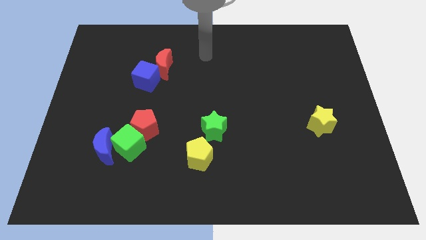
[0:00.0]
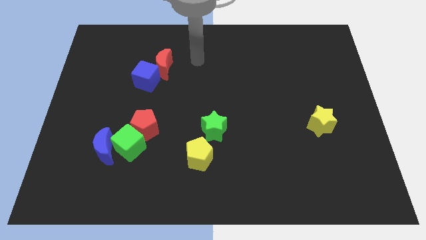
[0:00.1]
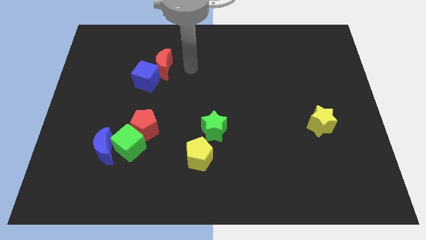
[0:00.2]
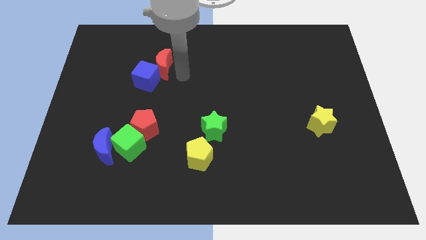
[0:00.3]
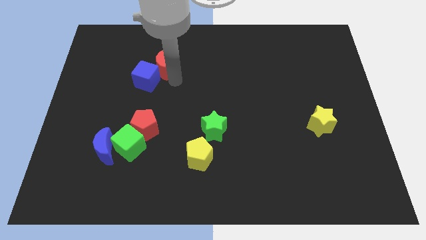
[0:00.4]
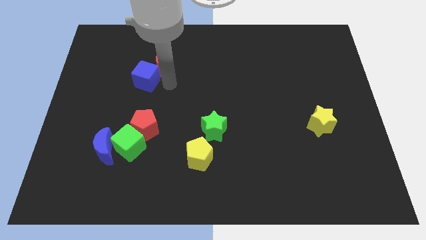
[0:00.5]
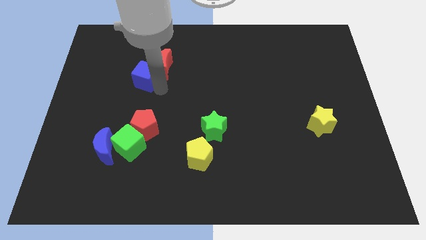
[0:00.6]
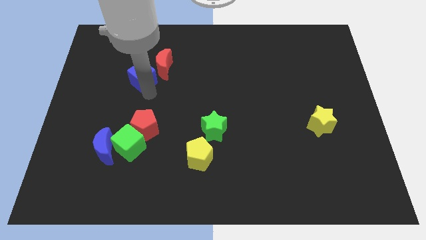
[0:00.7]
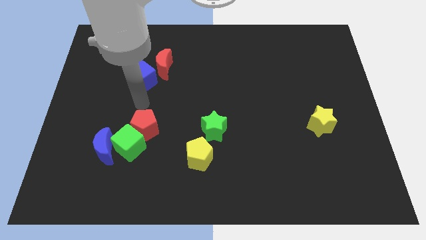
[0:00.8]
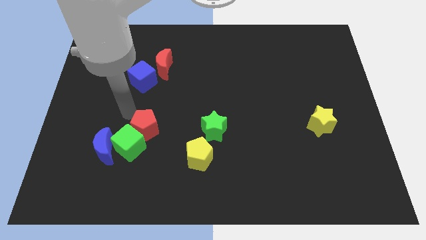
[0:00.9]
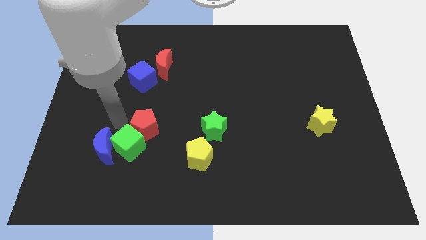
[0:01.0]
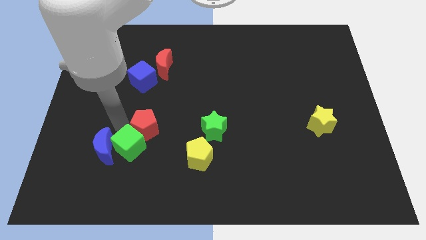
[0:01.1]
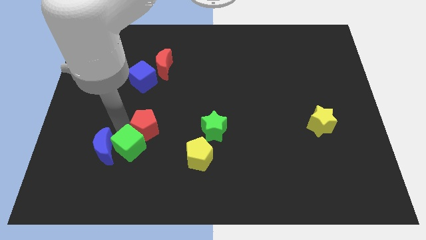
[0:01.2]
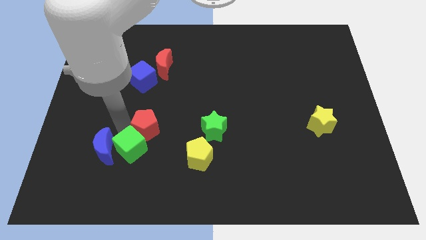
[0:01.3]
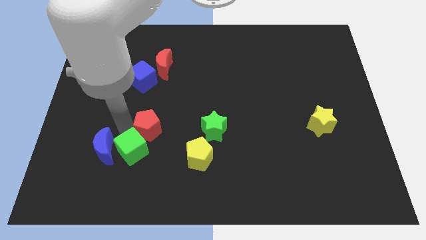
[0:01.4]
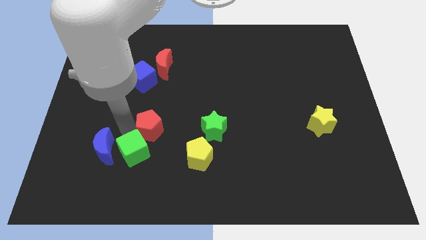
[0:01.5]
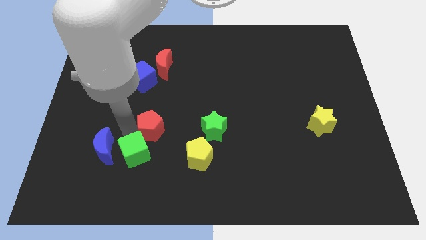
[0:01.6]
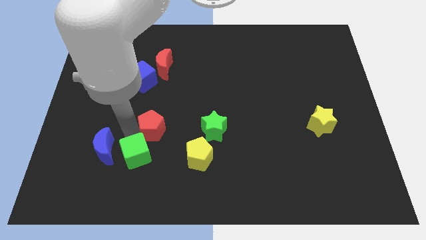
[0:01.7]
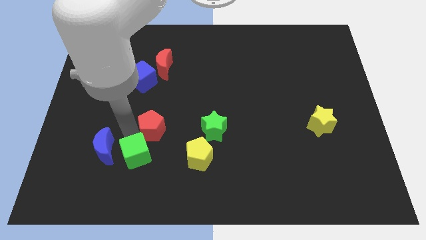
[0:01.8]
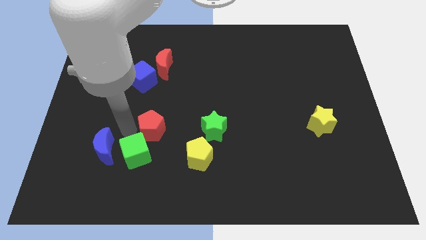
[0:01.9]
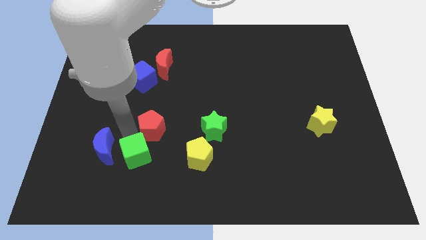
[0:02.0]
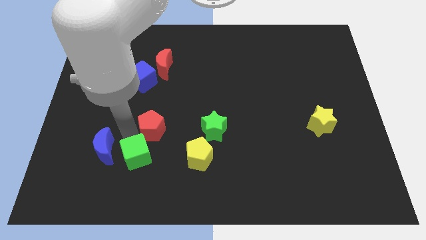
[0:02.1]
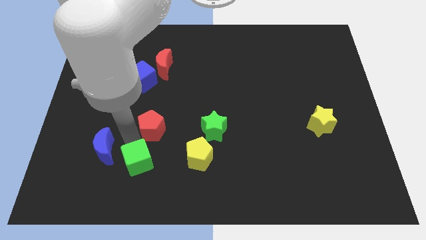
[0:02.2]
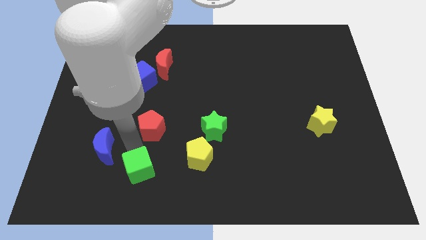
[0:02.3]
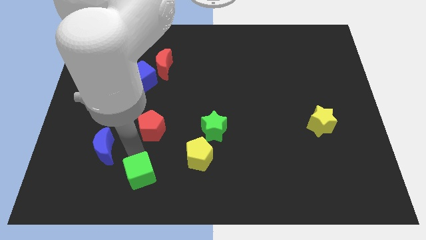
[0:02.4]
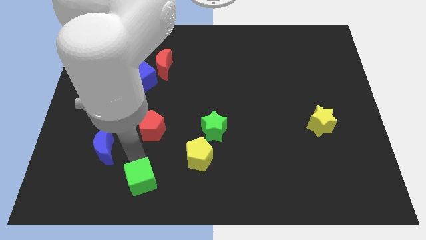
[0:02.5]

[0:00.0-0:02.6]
move the green cube away from the blue moon and red pentagon

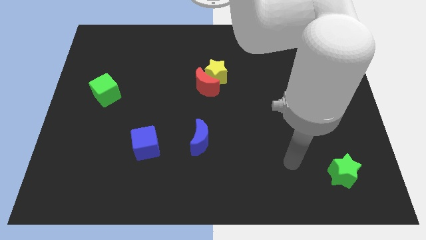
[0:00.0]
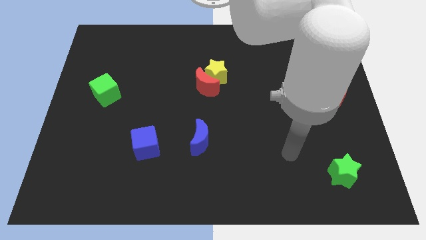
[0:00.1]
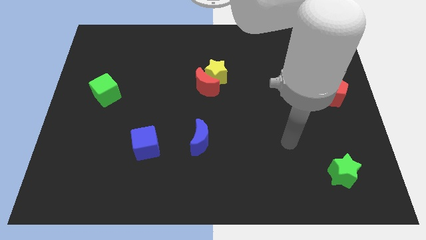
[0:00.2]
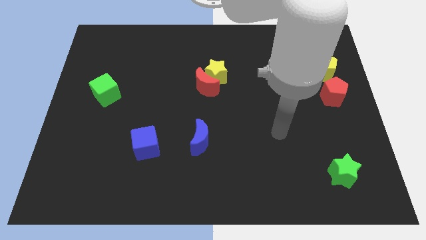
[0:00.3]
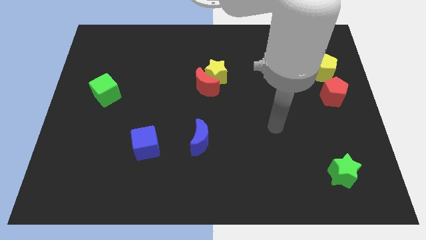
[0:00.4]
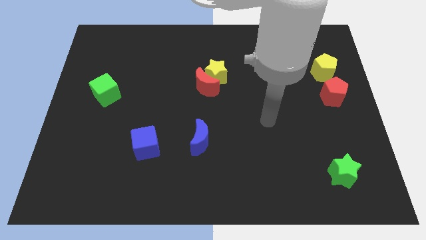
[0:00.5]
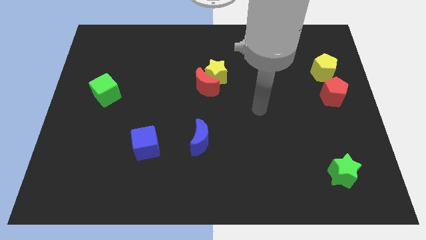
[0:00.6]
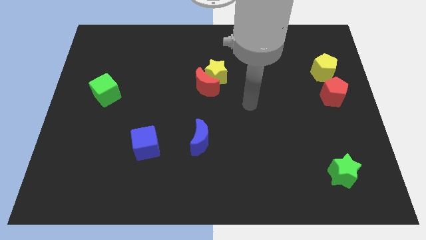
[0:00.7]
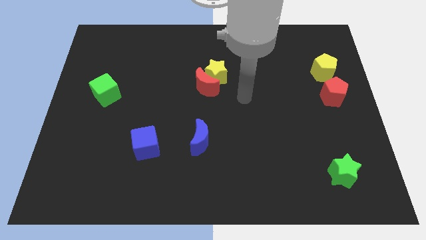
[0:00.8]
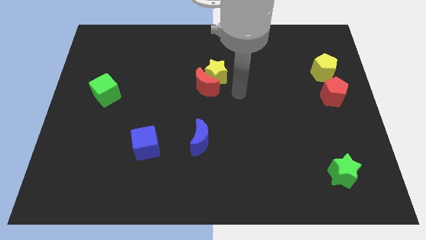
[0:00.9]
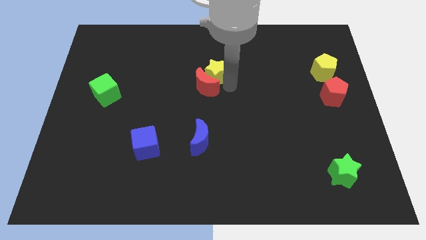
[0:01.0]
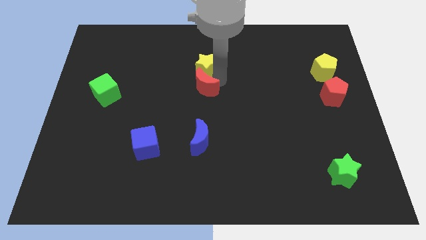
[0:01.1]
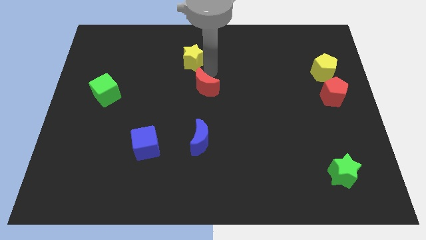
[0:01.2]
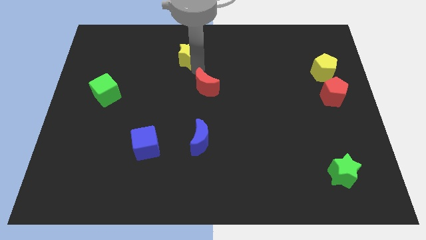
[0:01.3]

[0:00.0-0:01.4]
move the red moon away from the yellow star

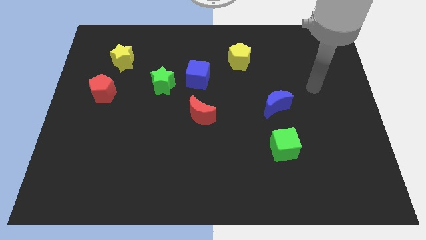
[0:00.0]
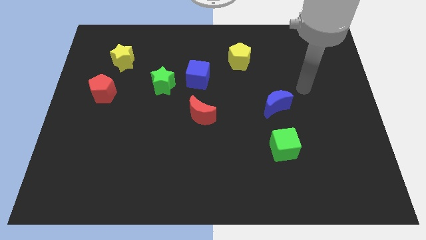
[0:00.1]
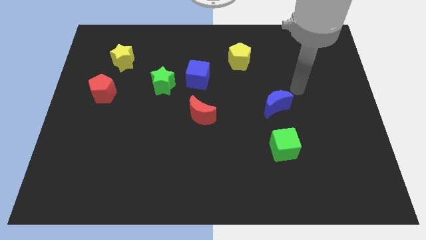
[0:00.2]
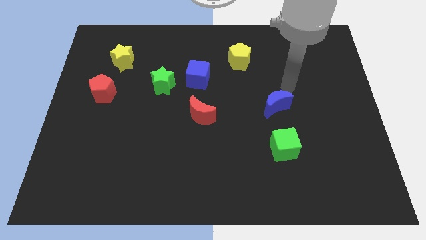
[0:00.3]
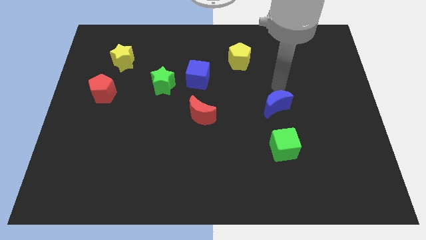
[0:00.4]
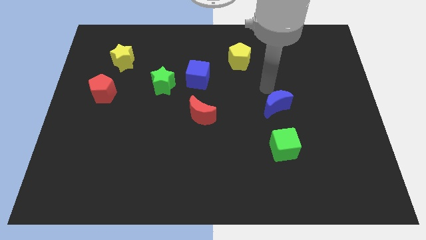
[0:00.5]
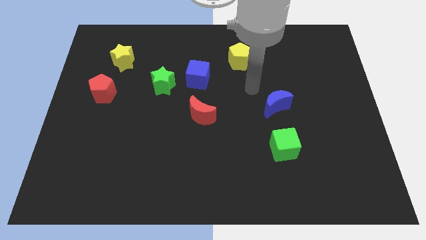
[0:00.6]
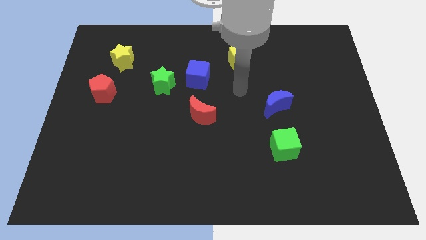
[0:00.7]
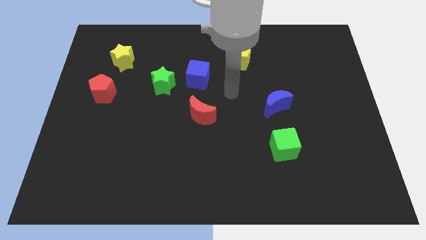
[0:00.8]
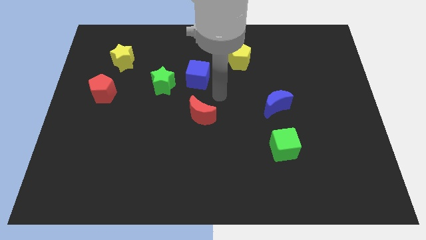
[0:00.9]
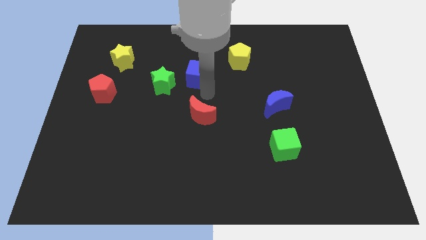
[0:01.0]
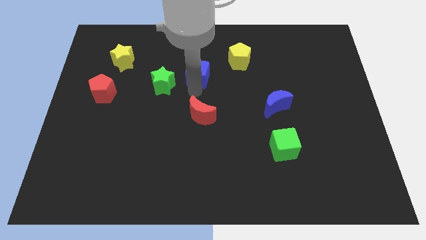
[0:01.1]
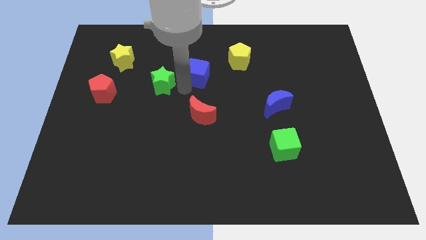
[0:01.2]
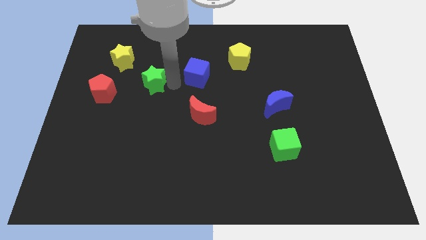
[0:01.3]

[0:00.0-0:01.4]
separate the blue cube from the green star

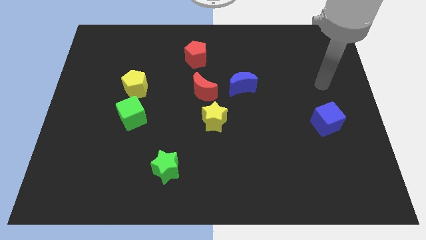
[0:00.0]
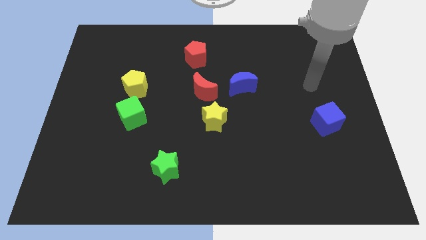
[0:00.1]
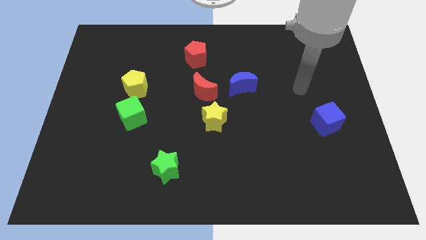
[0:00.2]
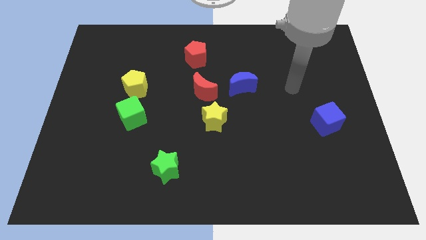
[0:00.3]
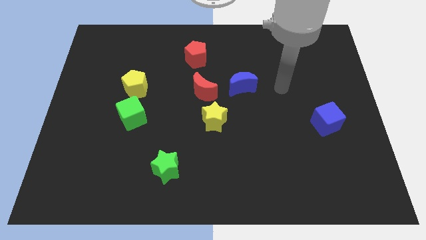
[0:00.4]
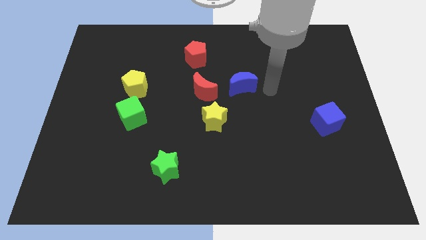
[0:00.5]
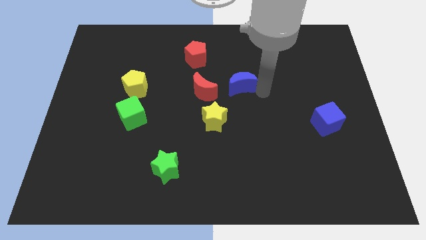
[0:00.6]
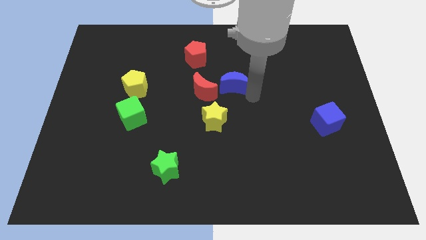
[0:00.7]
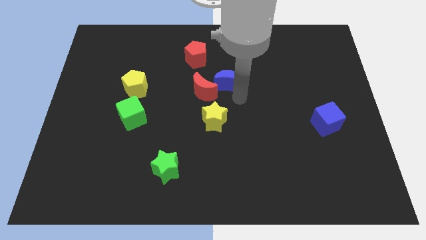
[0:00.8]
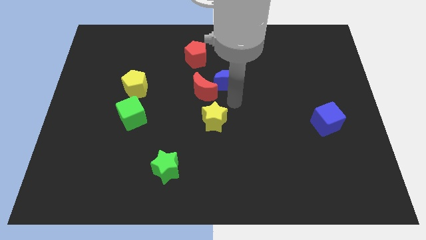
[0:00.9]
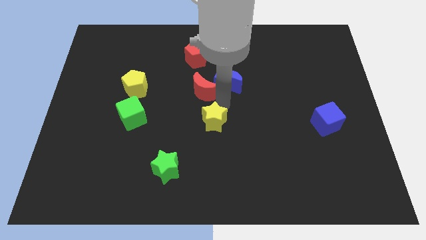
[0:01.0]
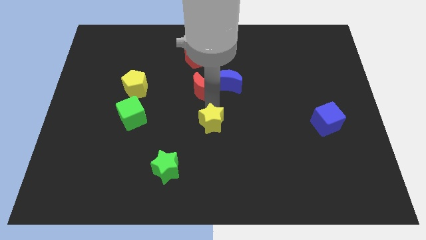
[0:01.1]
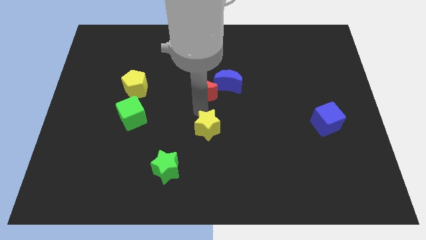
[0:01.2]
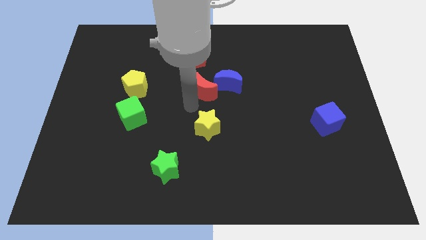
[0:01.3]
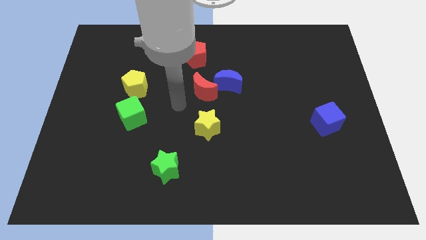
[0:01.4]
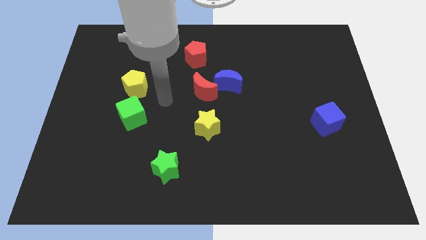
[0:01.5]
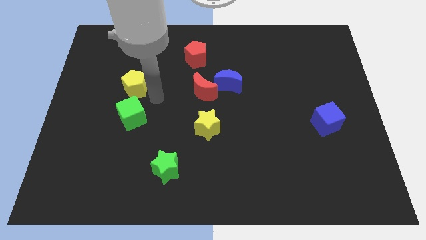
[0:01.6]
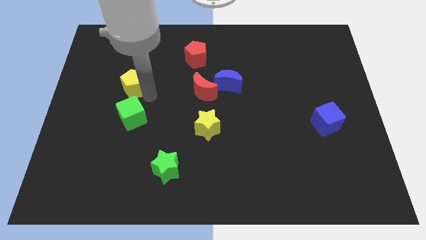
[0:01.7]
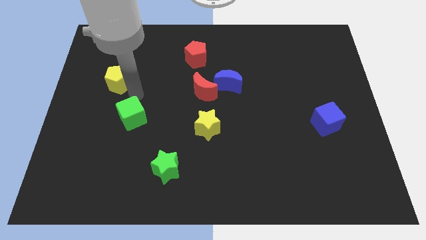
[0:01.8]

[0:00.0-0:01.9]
pull the green cube apart from the yellow pentagon

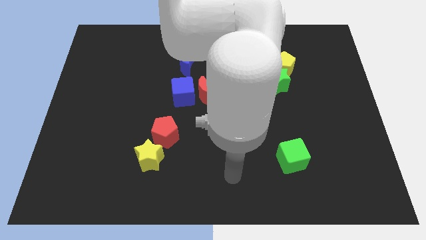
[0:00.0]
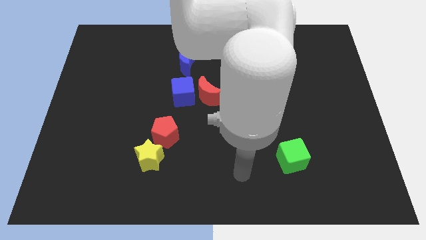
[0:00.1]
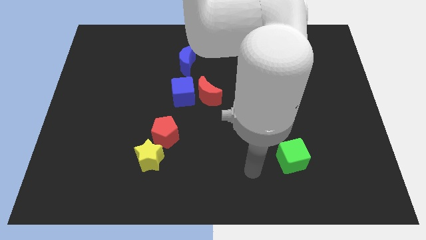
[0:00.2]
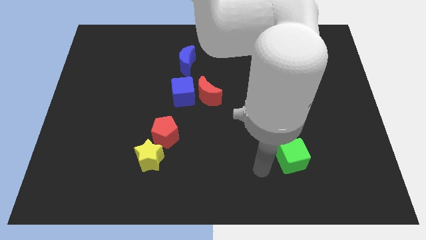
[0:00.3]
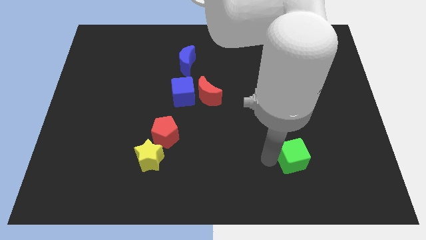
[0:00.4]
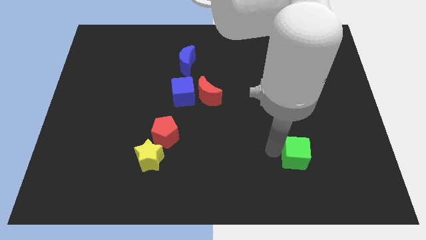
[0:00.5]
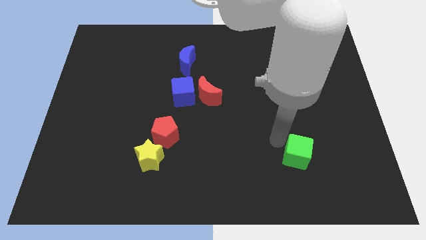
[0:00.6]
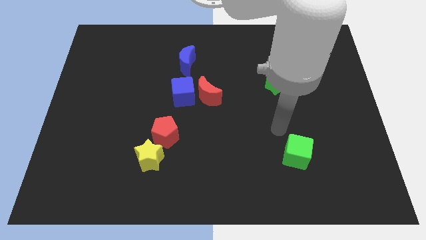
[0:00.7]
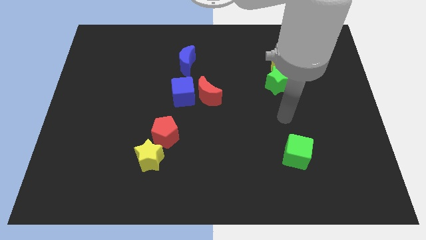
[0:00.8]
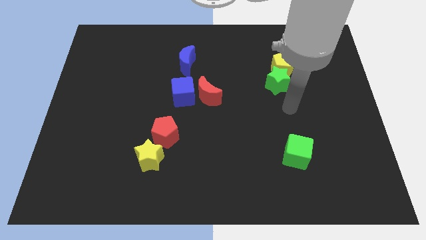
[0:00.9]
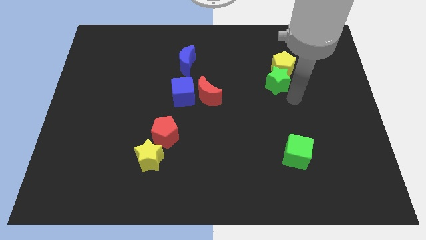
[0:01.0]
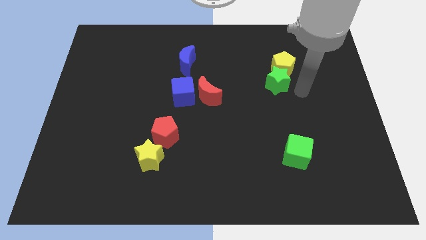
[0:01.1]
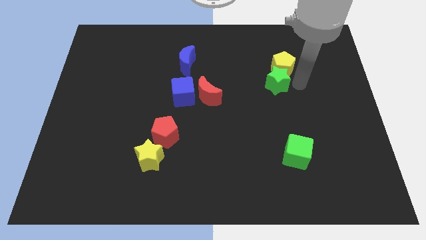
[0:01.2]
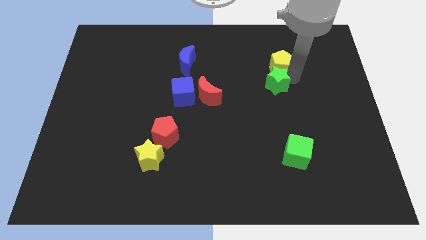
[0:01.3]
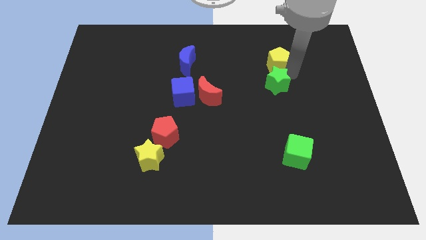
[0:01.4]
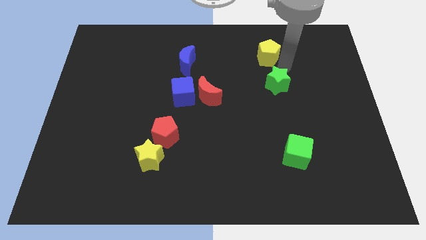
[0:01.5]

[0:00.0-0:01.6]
pull the green star apart from the yellow pentagon

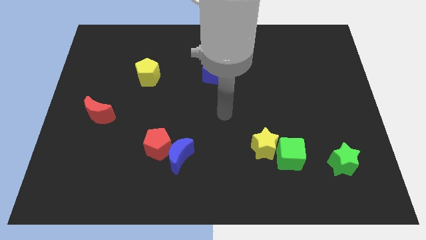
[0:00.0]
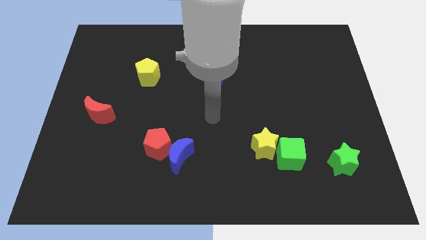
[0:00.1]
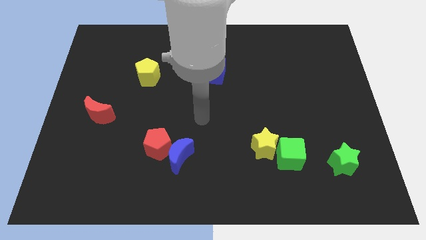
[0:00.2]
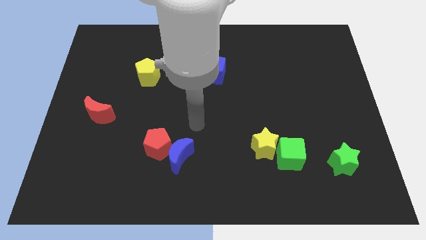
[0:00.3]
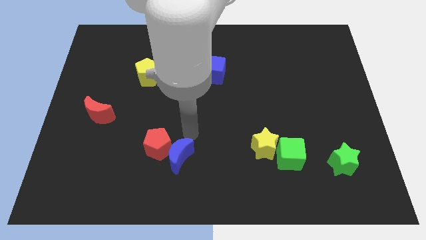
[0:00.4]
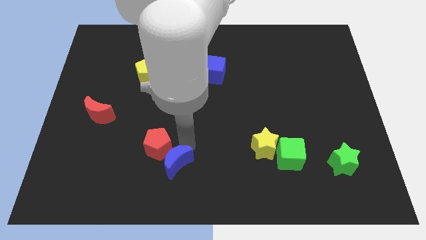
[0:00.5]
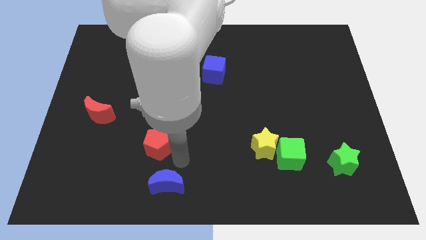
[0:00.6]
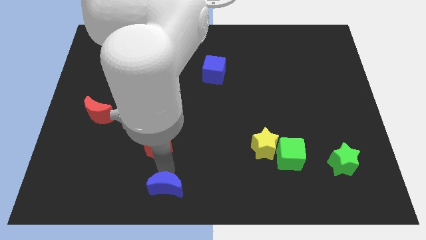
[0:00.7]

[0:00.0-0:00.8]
separate the red pentagon from the blue moon
